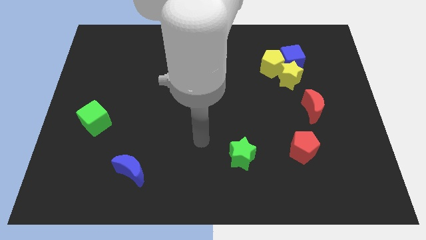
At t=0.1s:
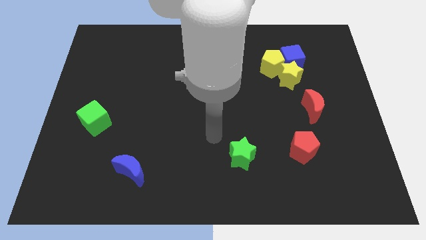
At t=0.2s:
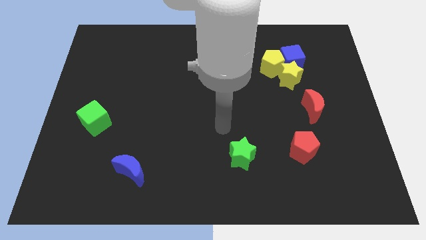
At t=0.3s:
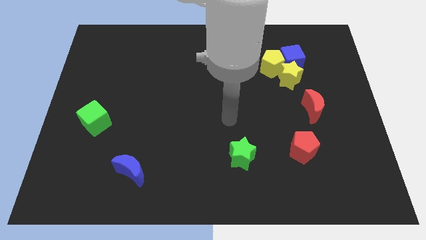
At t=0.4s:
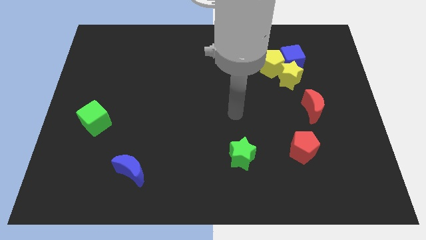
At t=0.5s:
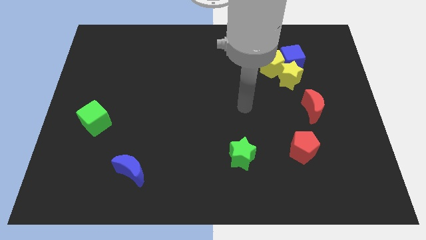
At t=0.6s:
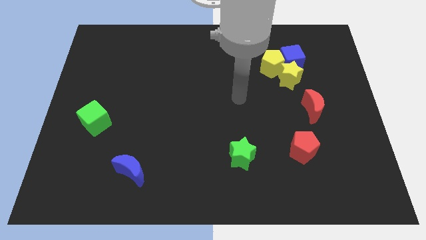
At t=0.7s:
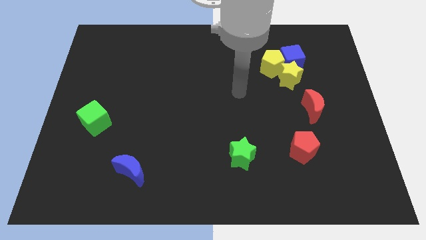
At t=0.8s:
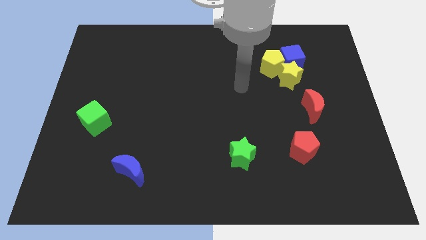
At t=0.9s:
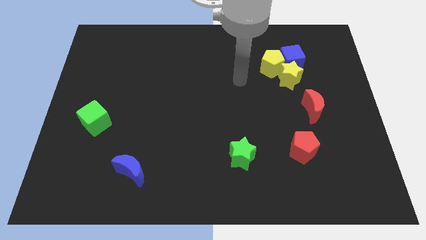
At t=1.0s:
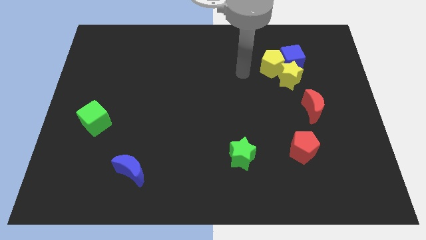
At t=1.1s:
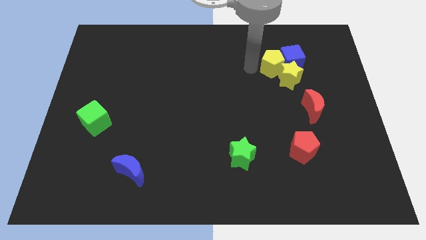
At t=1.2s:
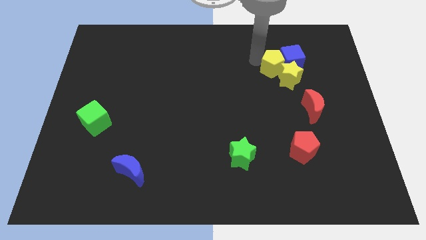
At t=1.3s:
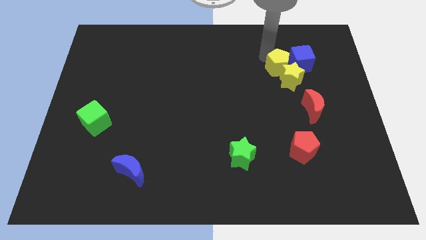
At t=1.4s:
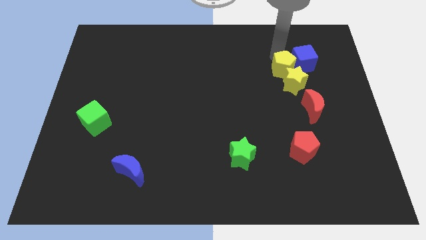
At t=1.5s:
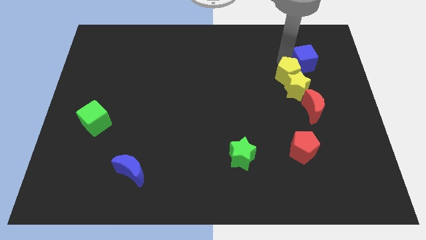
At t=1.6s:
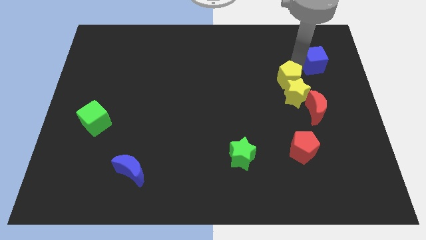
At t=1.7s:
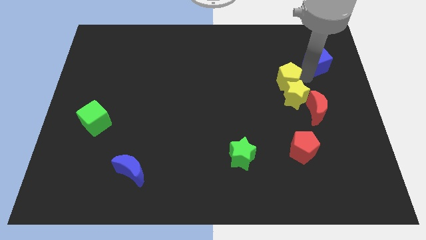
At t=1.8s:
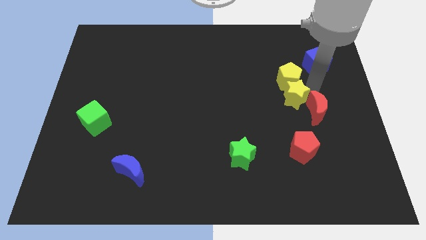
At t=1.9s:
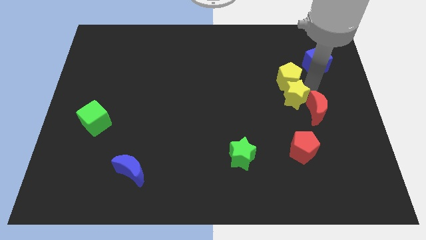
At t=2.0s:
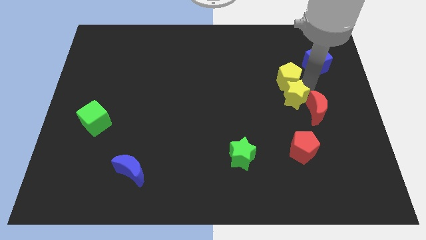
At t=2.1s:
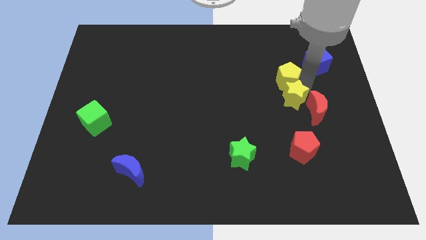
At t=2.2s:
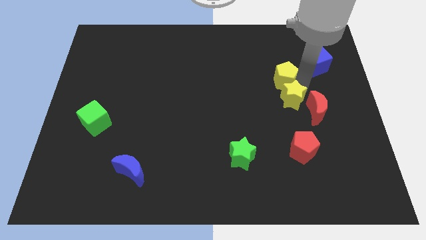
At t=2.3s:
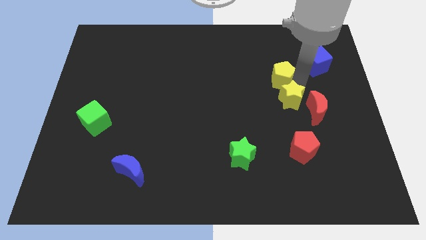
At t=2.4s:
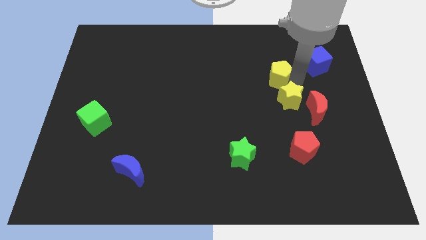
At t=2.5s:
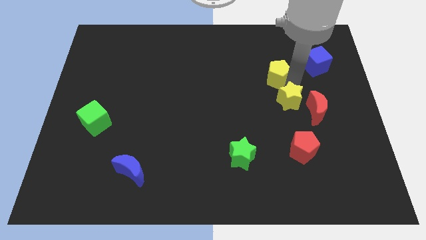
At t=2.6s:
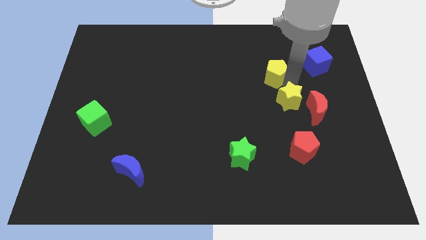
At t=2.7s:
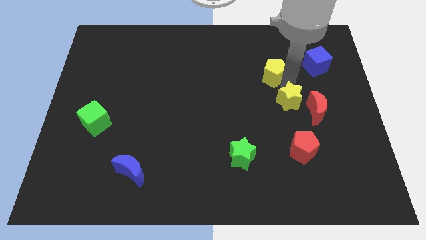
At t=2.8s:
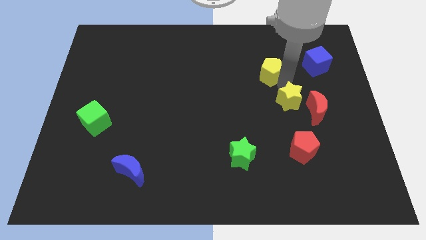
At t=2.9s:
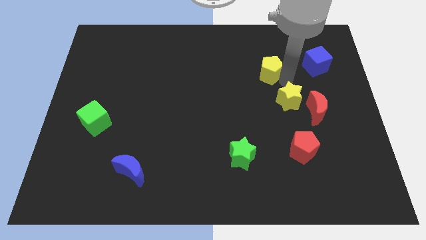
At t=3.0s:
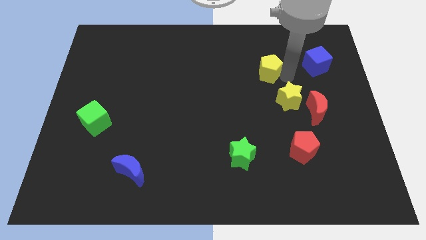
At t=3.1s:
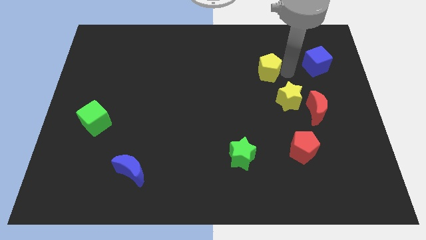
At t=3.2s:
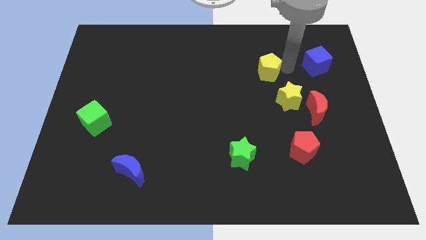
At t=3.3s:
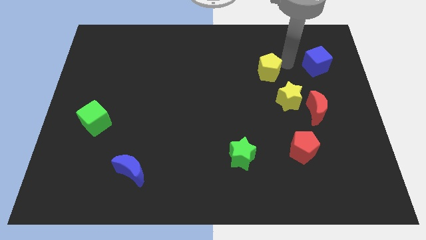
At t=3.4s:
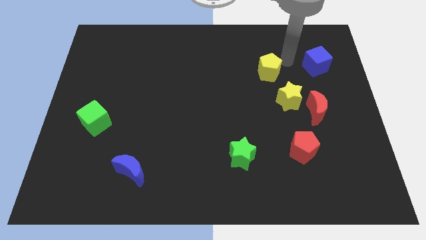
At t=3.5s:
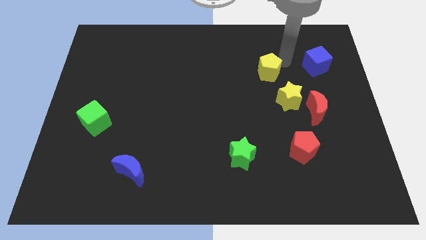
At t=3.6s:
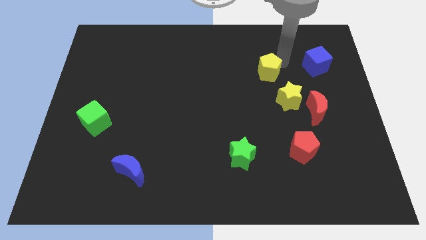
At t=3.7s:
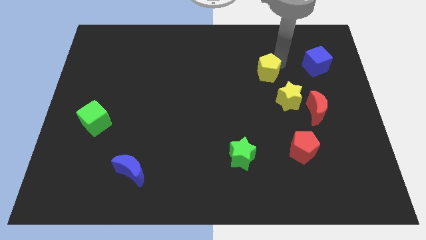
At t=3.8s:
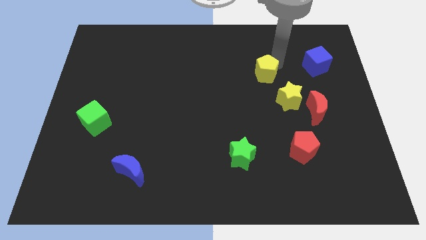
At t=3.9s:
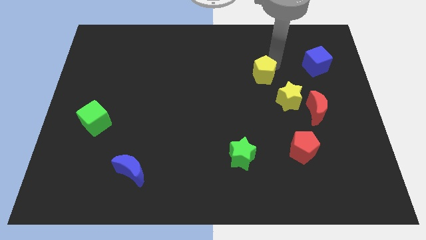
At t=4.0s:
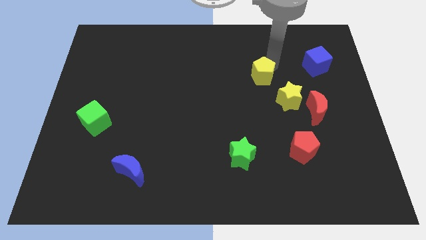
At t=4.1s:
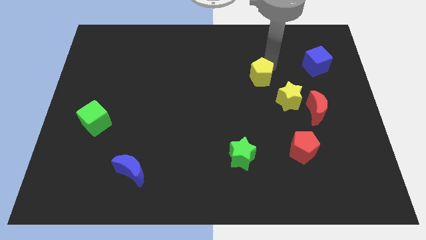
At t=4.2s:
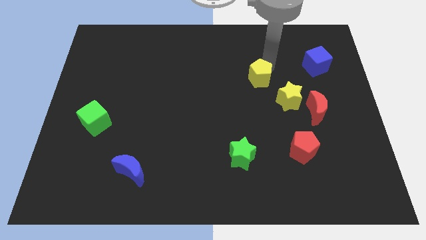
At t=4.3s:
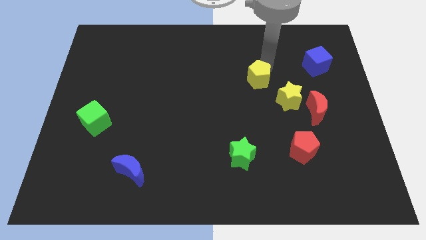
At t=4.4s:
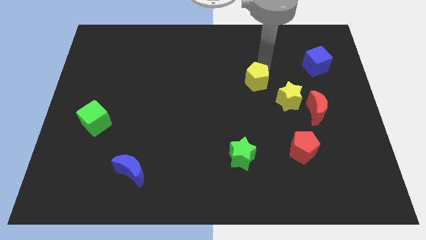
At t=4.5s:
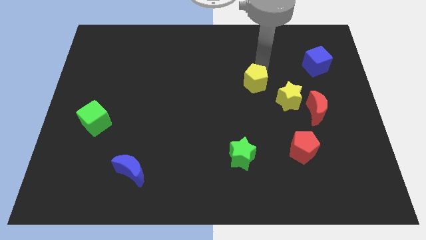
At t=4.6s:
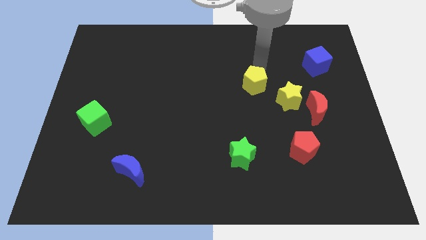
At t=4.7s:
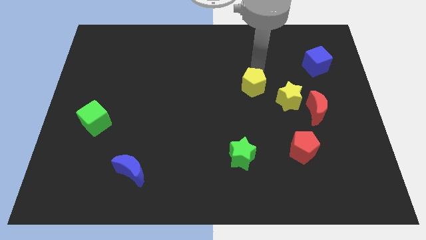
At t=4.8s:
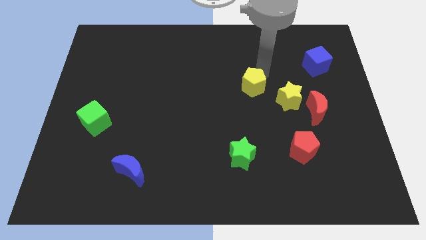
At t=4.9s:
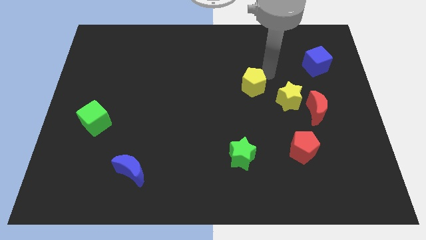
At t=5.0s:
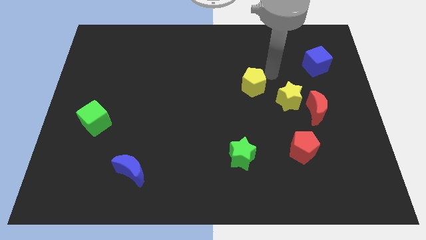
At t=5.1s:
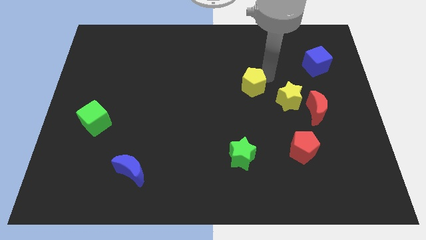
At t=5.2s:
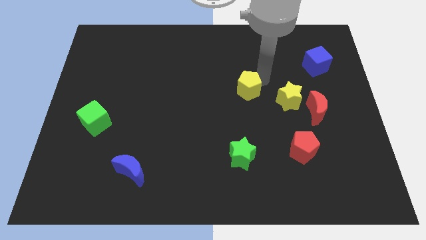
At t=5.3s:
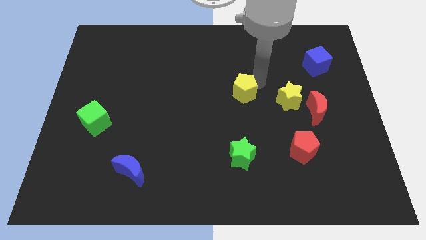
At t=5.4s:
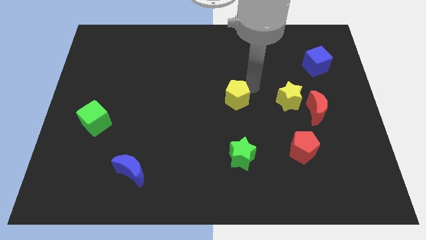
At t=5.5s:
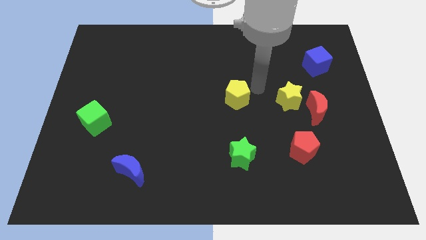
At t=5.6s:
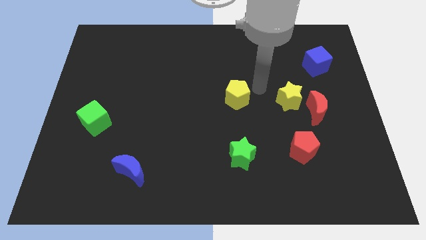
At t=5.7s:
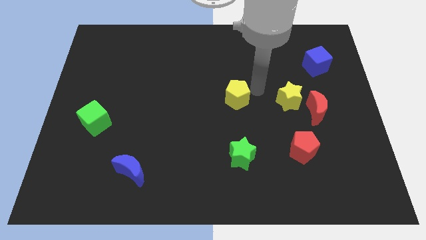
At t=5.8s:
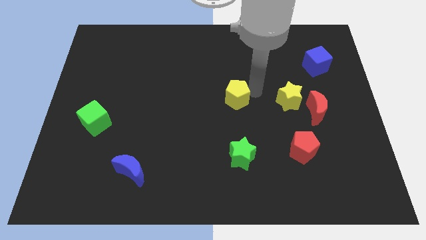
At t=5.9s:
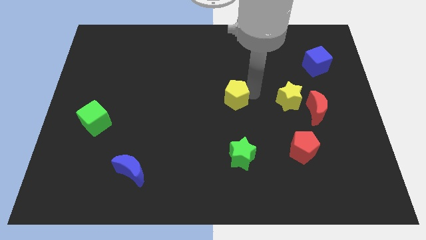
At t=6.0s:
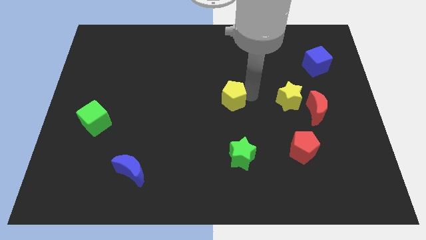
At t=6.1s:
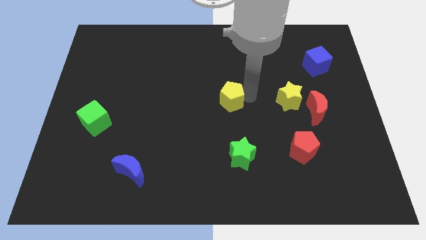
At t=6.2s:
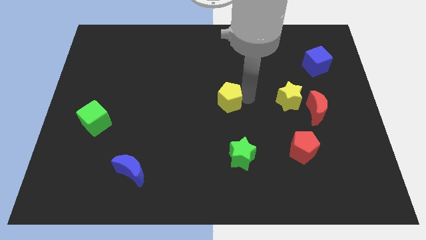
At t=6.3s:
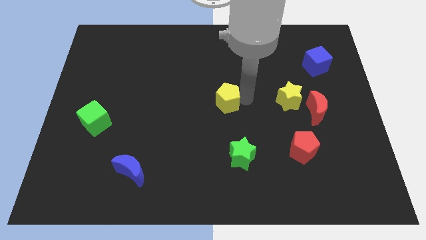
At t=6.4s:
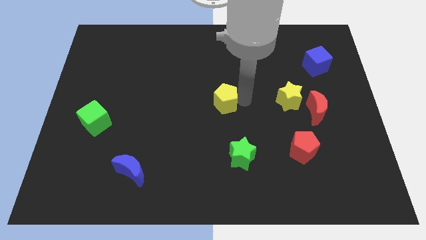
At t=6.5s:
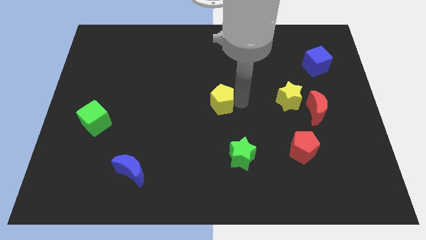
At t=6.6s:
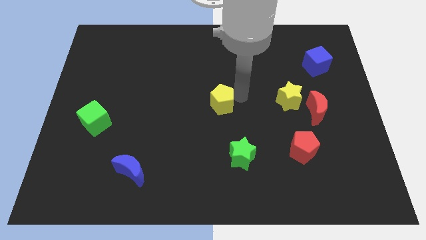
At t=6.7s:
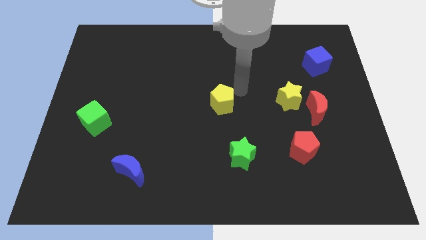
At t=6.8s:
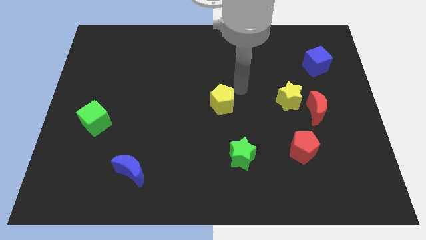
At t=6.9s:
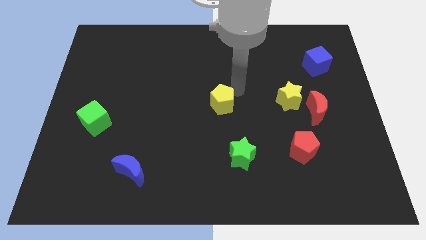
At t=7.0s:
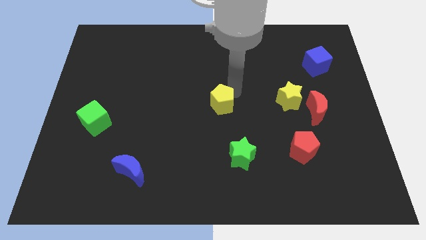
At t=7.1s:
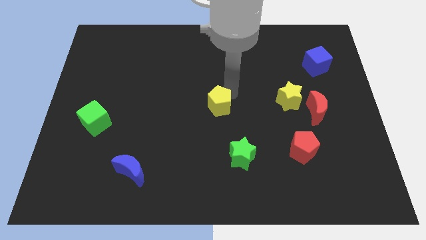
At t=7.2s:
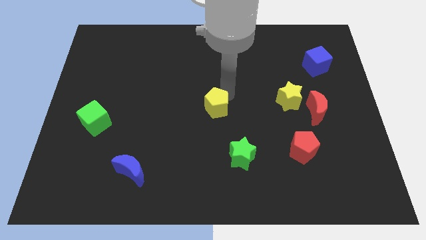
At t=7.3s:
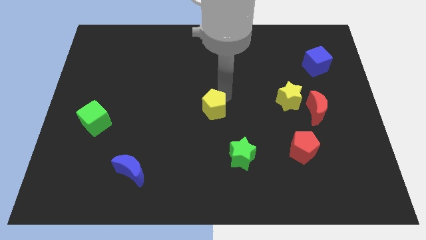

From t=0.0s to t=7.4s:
slide the yellow pentagon diagonally down and to the left

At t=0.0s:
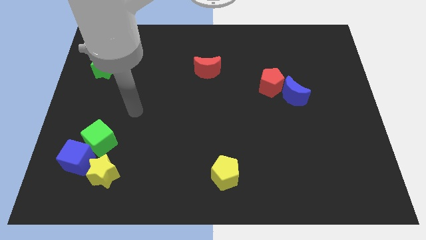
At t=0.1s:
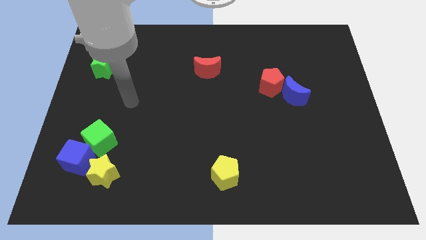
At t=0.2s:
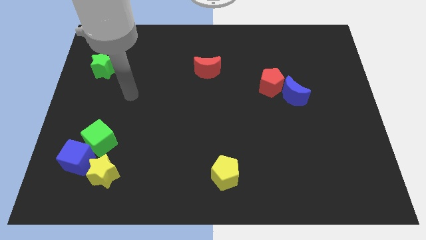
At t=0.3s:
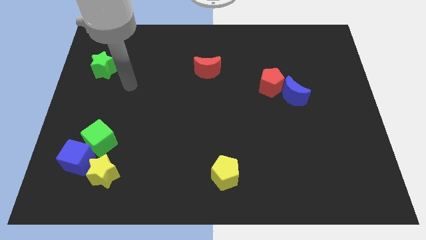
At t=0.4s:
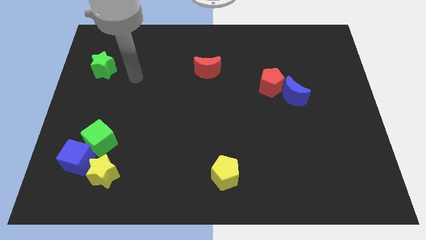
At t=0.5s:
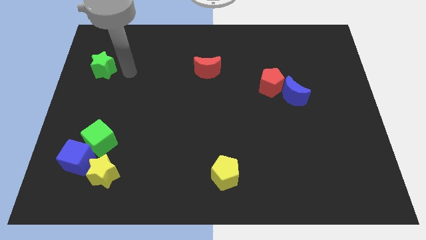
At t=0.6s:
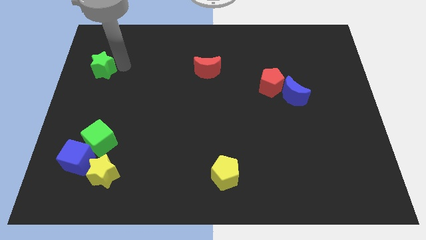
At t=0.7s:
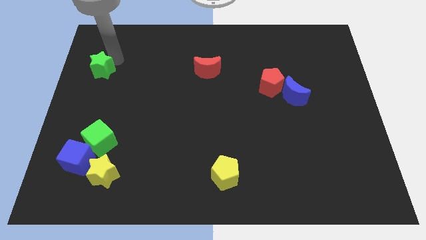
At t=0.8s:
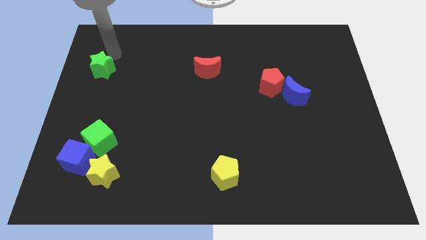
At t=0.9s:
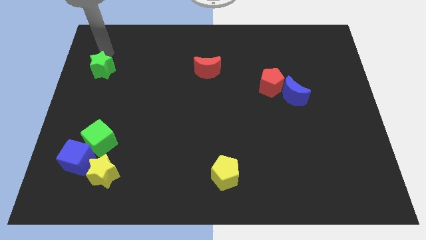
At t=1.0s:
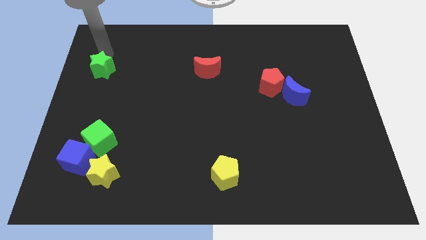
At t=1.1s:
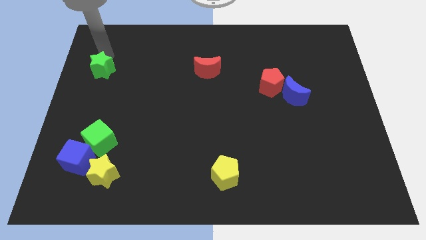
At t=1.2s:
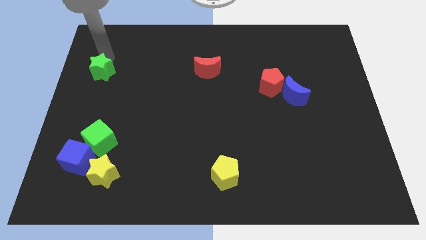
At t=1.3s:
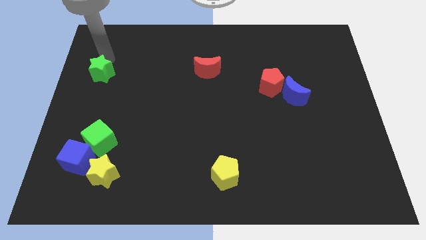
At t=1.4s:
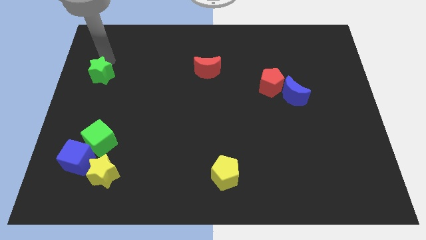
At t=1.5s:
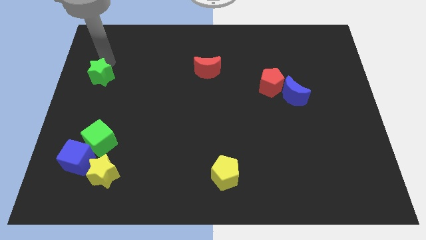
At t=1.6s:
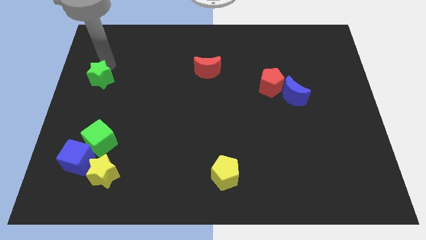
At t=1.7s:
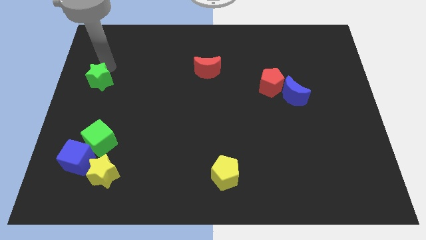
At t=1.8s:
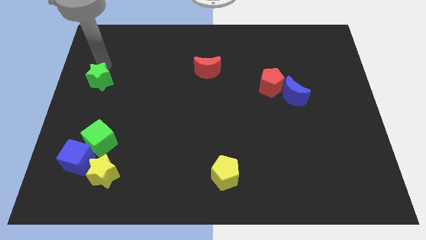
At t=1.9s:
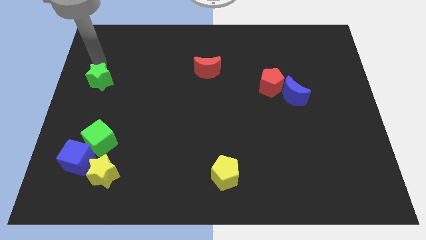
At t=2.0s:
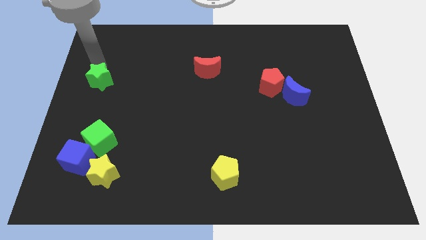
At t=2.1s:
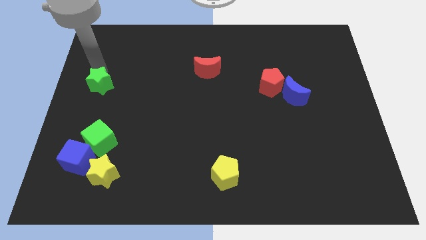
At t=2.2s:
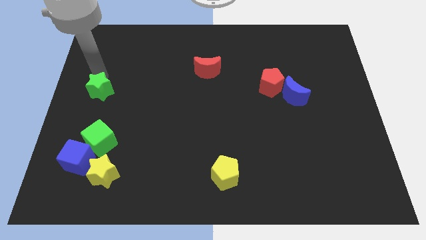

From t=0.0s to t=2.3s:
push the green star a little downwards
